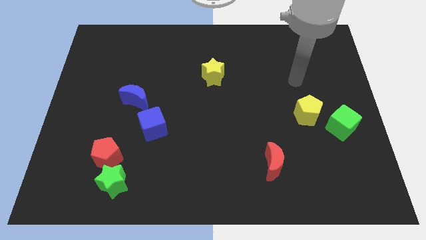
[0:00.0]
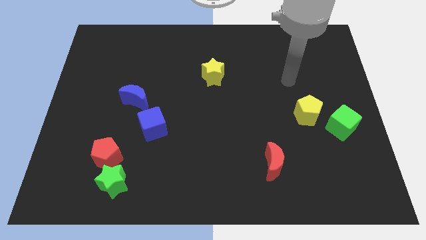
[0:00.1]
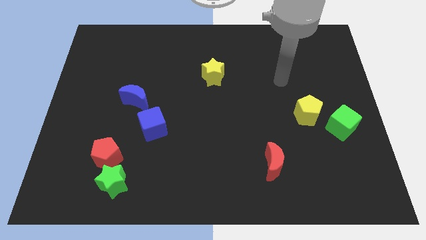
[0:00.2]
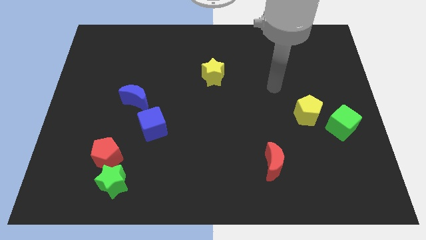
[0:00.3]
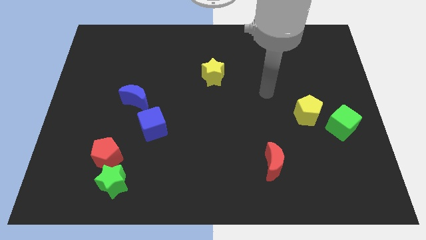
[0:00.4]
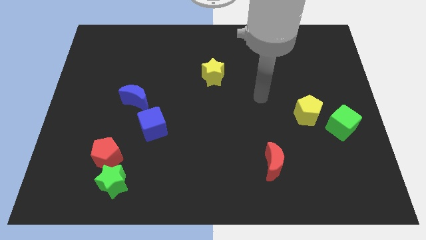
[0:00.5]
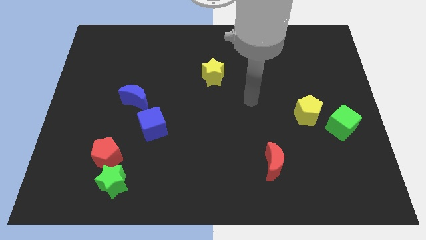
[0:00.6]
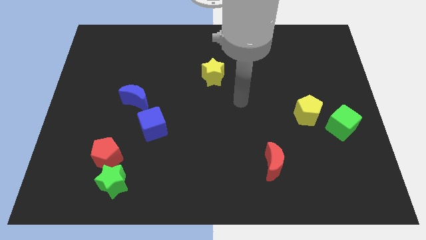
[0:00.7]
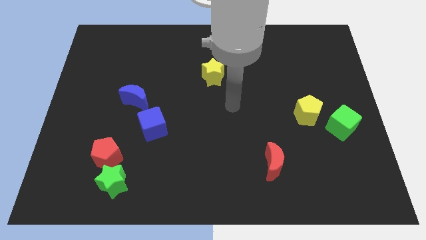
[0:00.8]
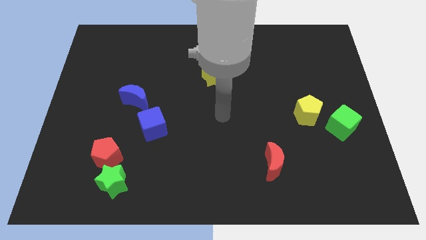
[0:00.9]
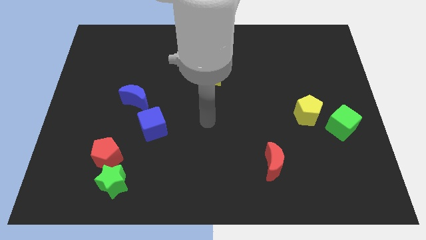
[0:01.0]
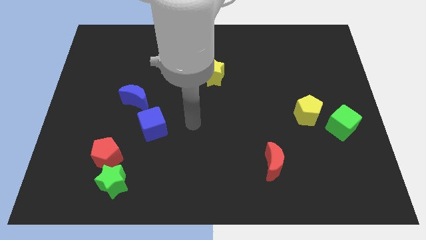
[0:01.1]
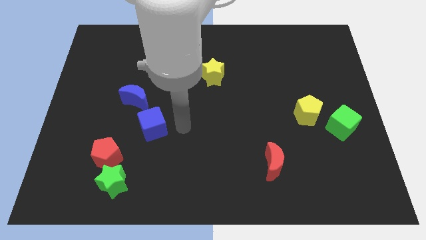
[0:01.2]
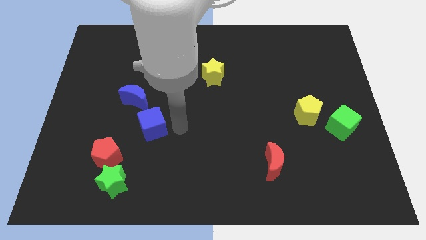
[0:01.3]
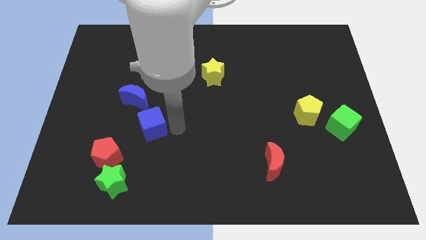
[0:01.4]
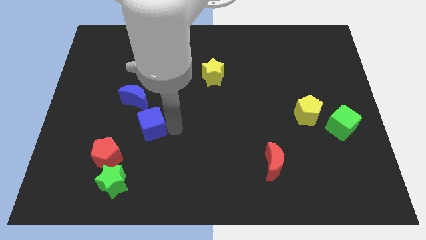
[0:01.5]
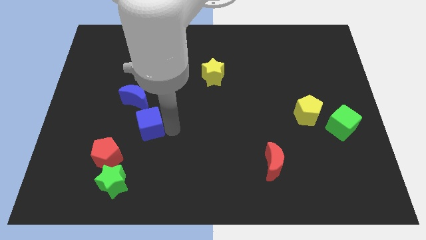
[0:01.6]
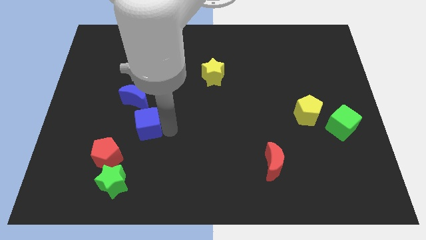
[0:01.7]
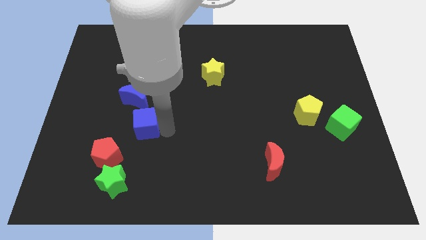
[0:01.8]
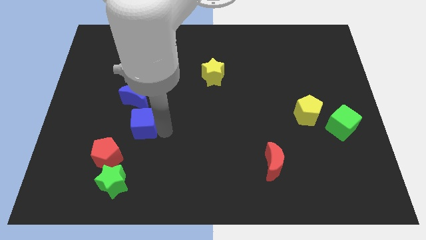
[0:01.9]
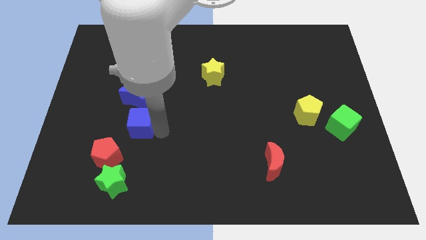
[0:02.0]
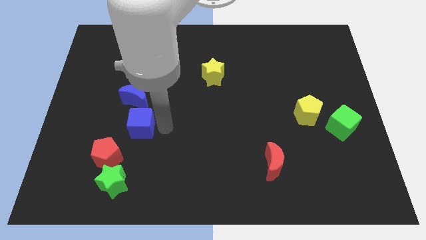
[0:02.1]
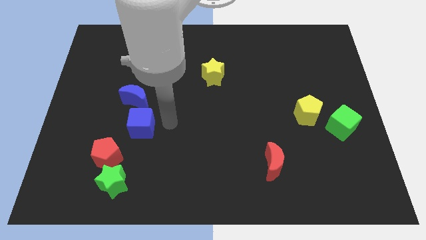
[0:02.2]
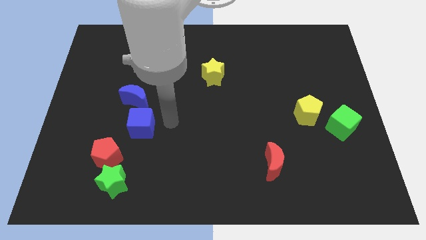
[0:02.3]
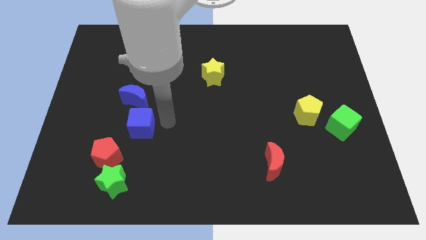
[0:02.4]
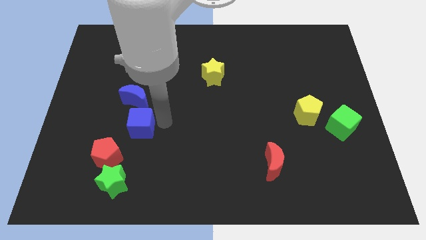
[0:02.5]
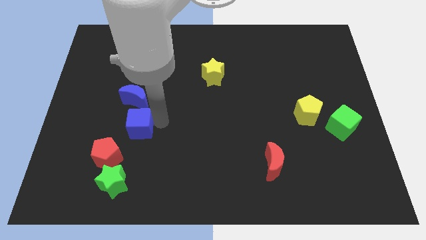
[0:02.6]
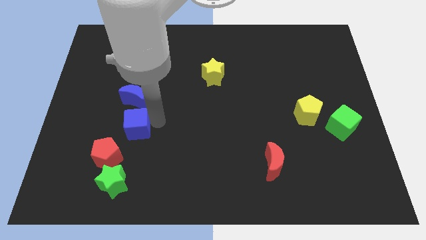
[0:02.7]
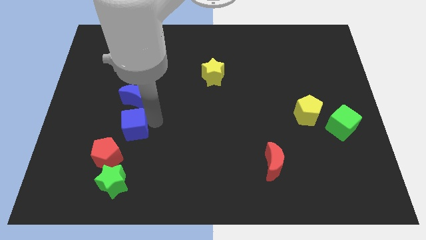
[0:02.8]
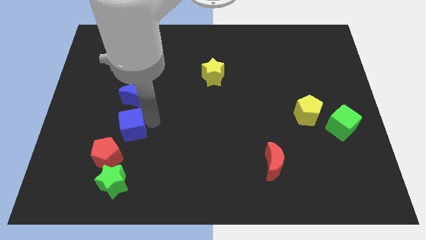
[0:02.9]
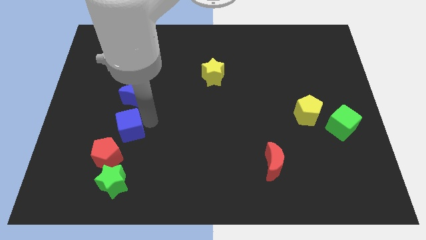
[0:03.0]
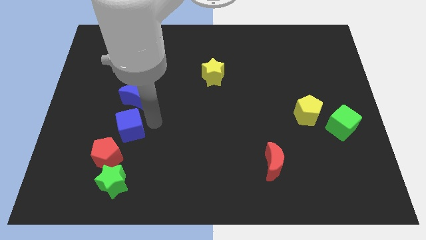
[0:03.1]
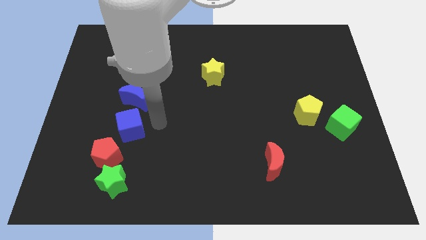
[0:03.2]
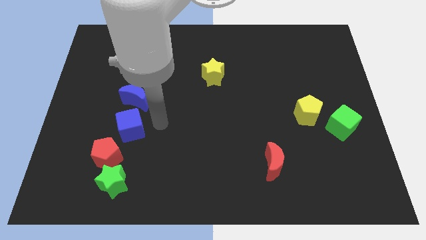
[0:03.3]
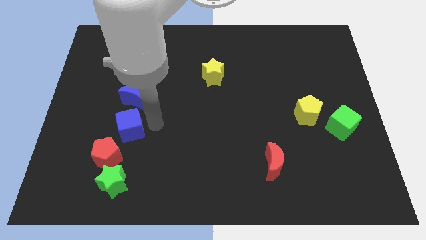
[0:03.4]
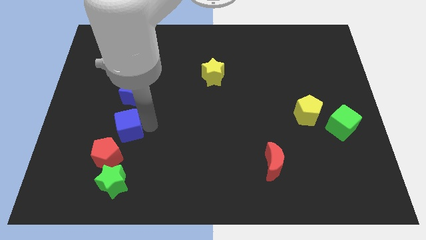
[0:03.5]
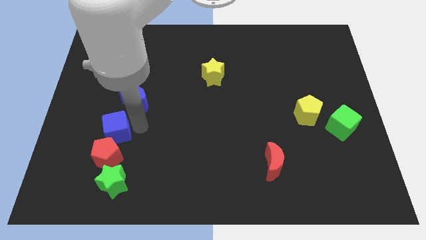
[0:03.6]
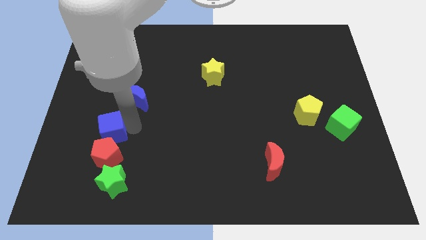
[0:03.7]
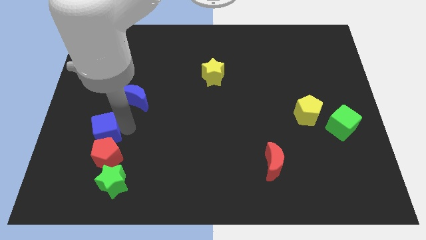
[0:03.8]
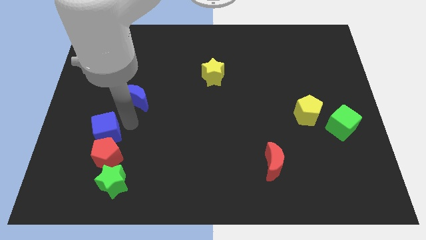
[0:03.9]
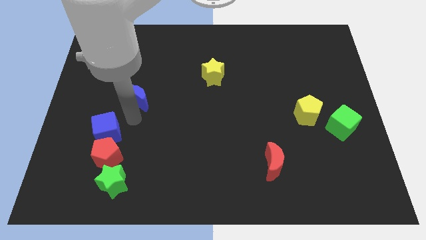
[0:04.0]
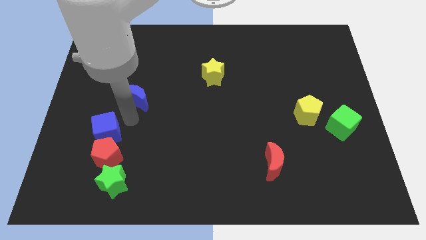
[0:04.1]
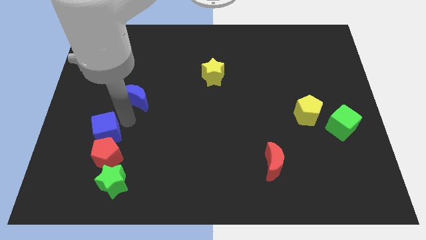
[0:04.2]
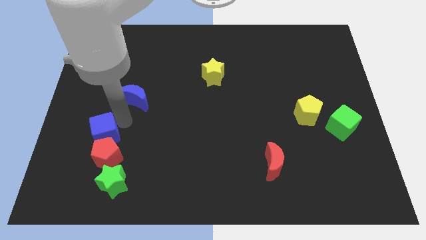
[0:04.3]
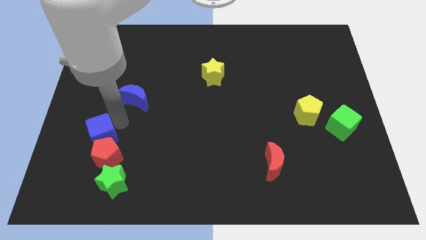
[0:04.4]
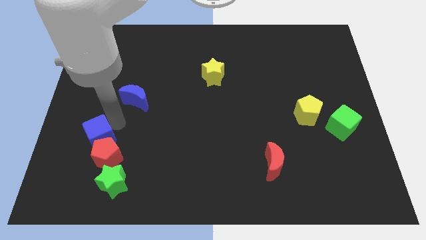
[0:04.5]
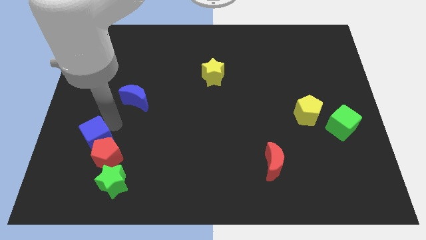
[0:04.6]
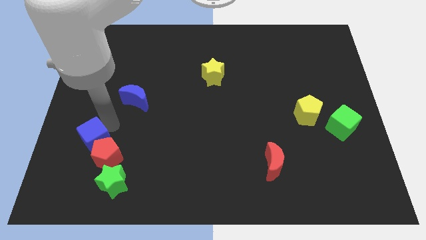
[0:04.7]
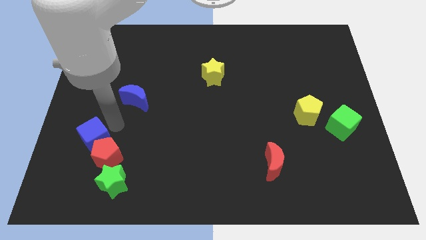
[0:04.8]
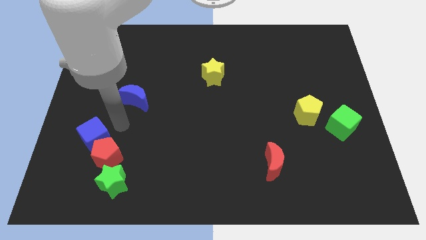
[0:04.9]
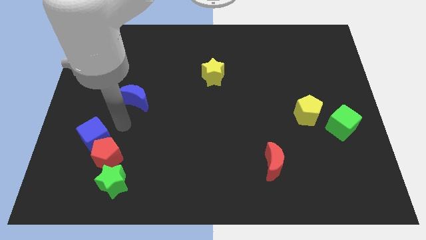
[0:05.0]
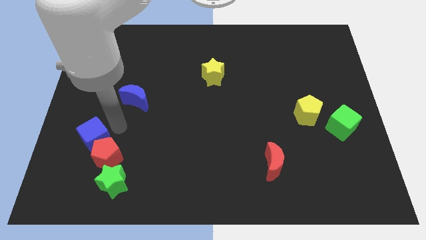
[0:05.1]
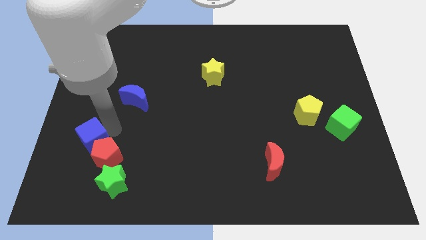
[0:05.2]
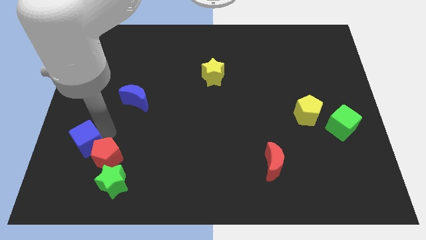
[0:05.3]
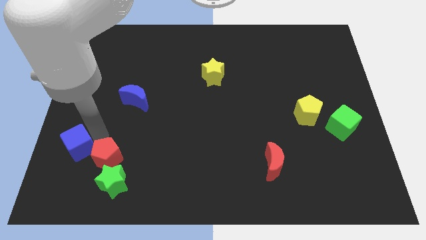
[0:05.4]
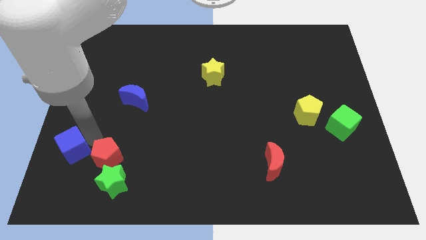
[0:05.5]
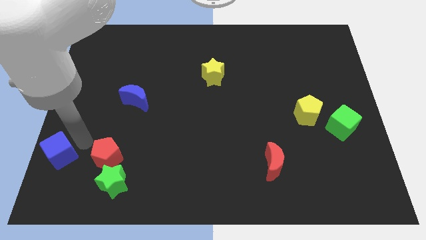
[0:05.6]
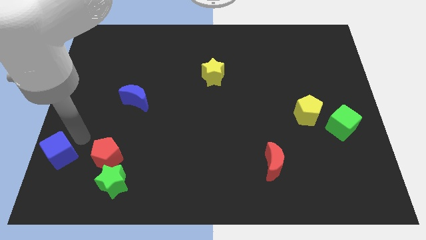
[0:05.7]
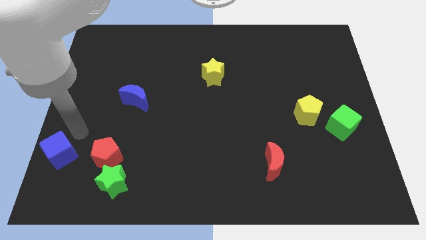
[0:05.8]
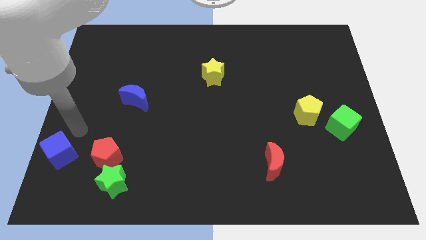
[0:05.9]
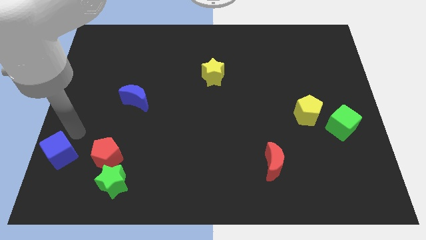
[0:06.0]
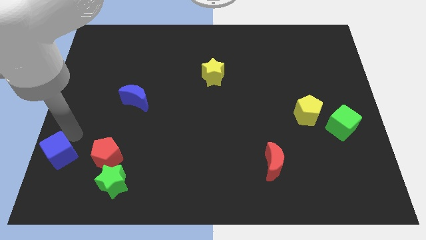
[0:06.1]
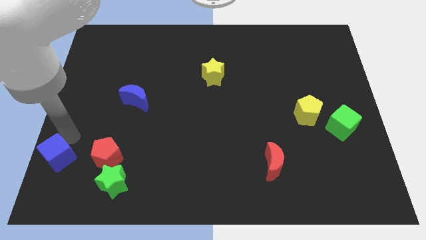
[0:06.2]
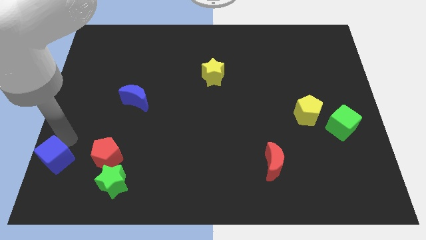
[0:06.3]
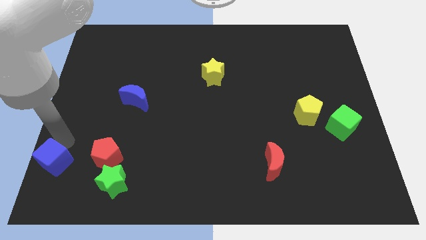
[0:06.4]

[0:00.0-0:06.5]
push the blue cube to the bottom left
